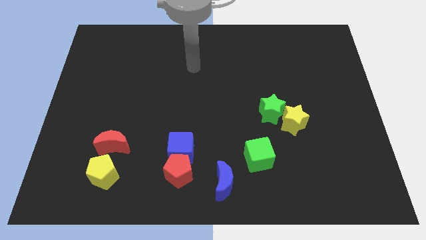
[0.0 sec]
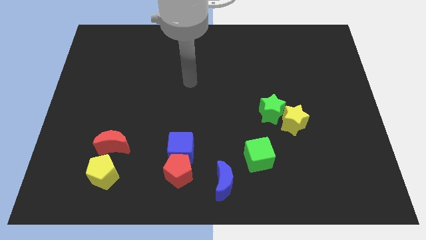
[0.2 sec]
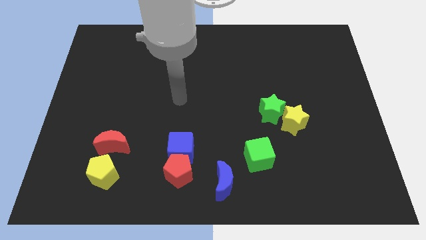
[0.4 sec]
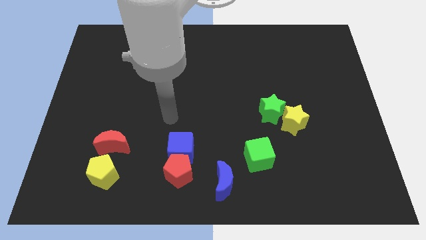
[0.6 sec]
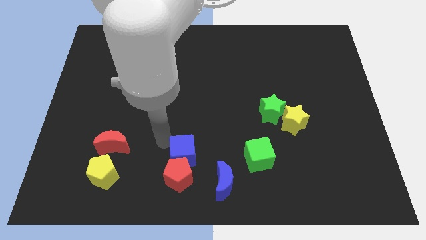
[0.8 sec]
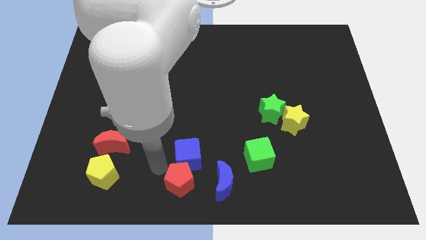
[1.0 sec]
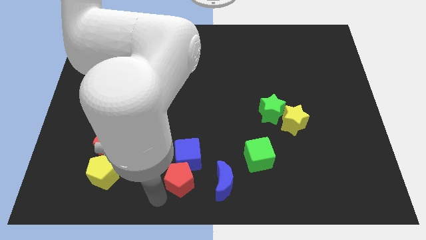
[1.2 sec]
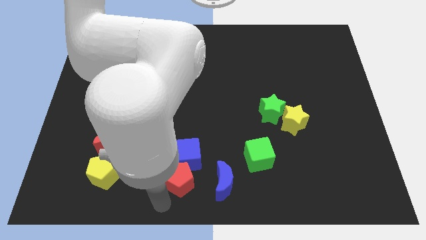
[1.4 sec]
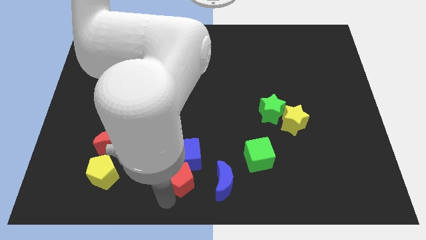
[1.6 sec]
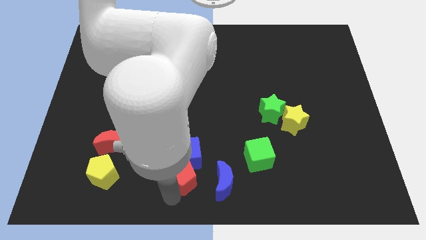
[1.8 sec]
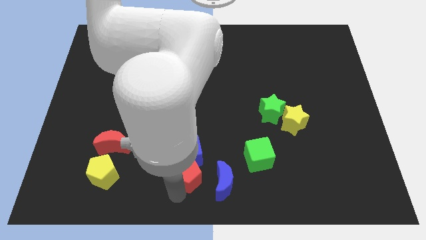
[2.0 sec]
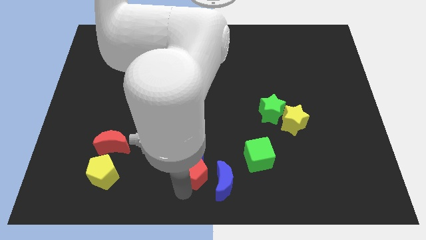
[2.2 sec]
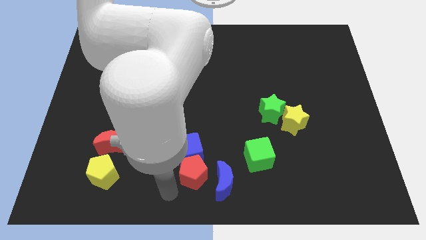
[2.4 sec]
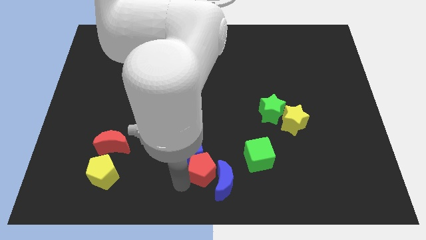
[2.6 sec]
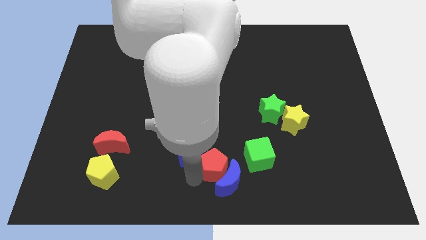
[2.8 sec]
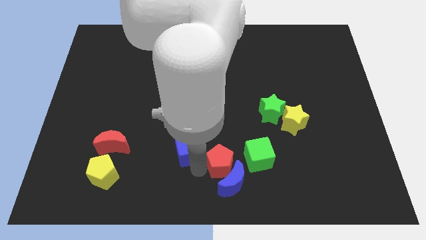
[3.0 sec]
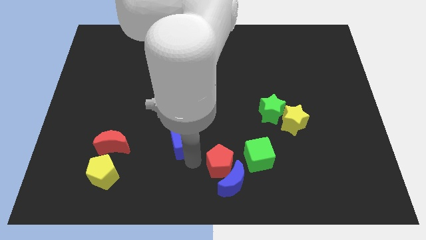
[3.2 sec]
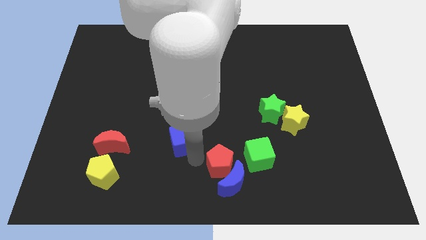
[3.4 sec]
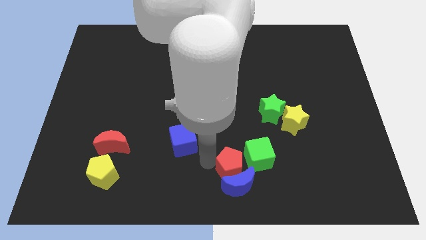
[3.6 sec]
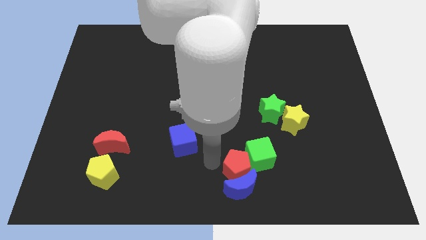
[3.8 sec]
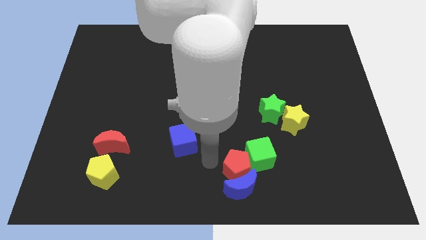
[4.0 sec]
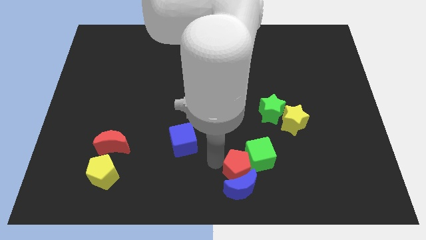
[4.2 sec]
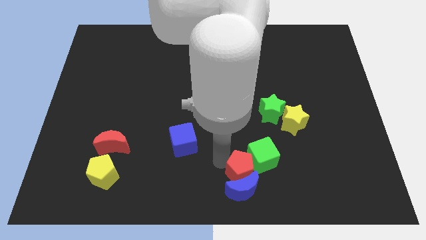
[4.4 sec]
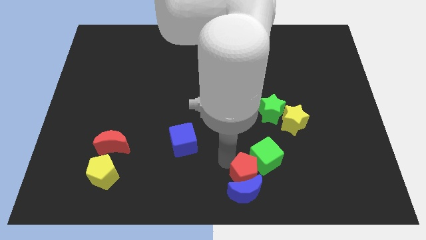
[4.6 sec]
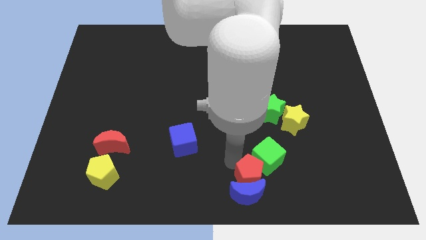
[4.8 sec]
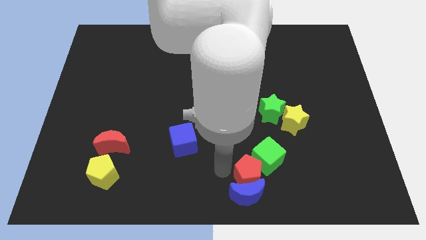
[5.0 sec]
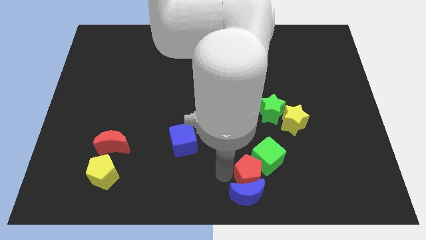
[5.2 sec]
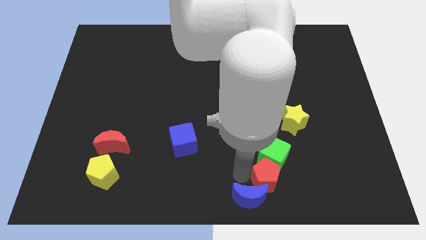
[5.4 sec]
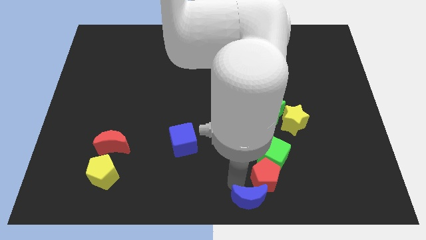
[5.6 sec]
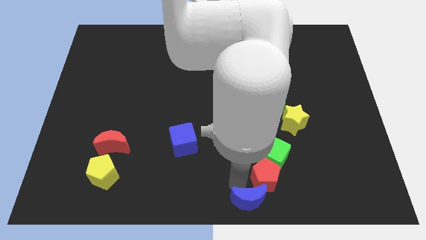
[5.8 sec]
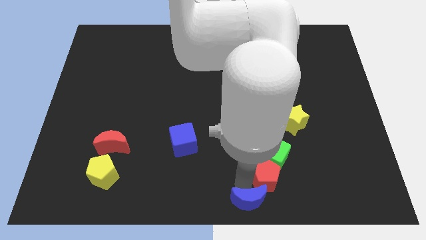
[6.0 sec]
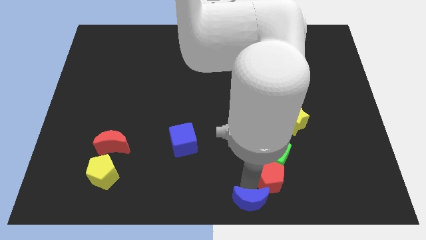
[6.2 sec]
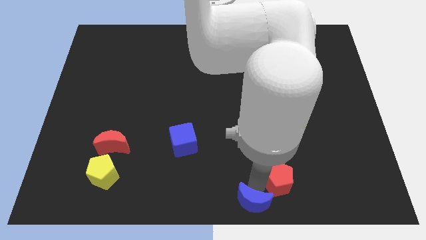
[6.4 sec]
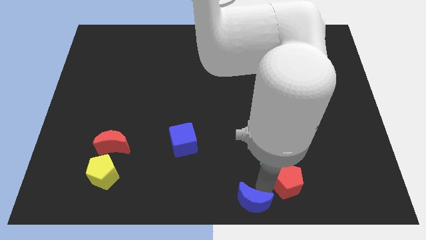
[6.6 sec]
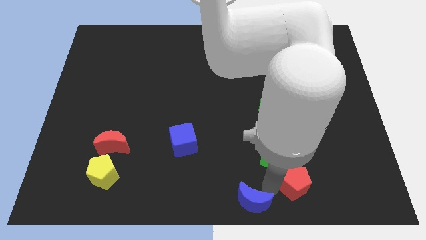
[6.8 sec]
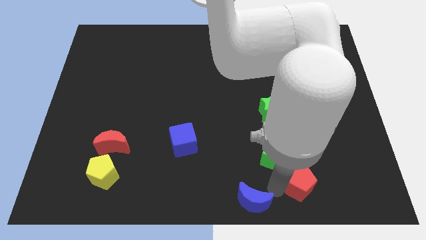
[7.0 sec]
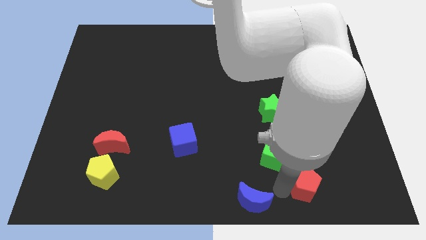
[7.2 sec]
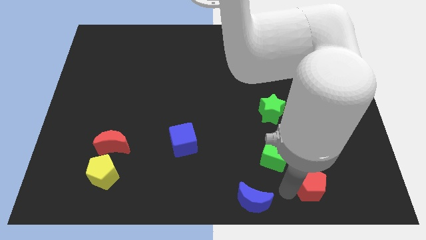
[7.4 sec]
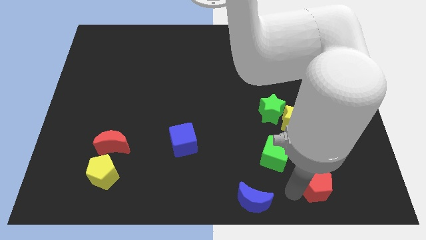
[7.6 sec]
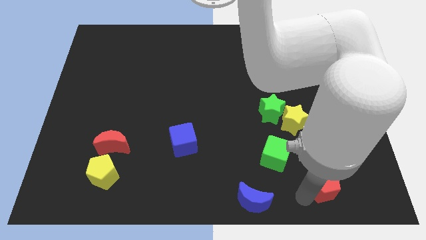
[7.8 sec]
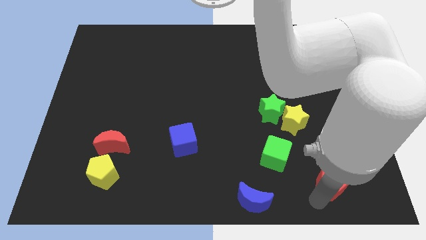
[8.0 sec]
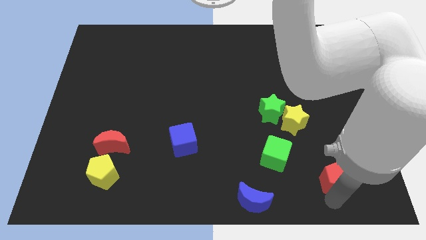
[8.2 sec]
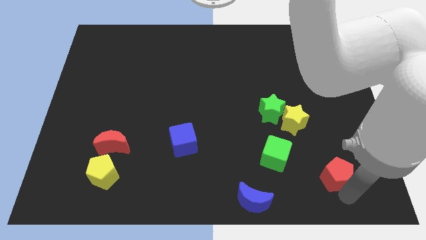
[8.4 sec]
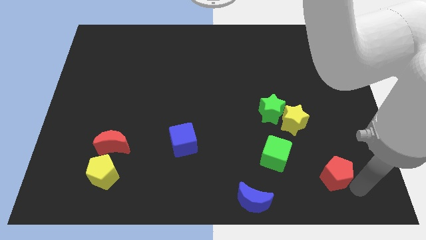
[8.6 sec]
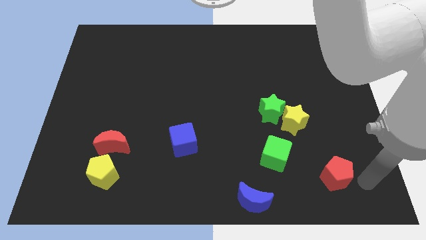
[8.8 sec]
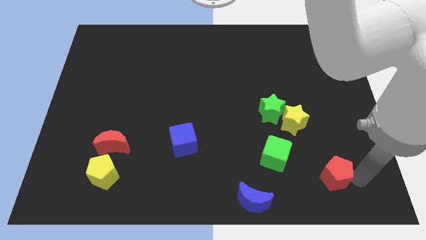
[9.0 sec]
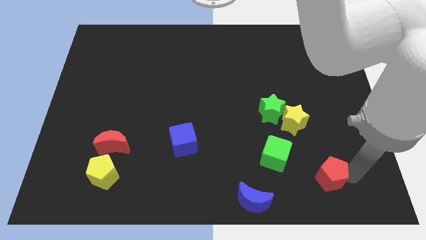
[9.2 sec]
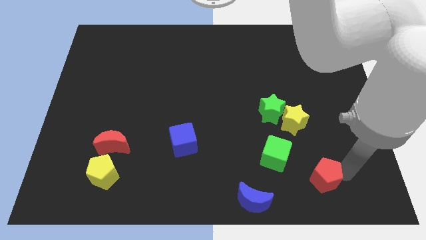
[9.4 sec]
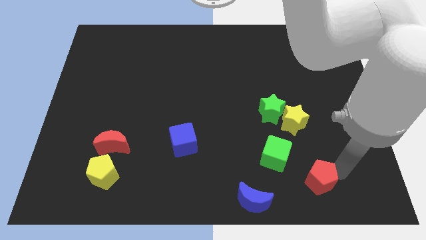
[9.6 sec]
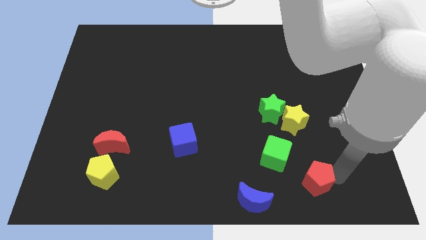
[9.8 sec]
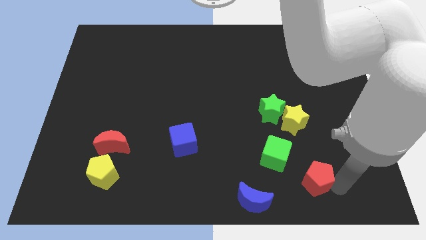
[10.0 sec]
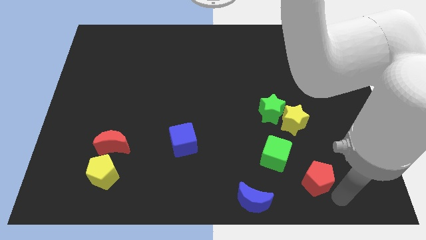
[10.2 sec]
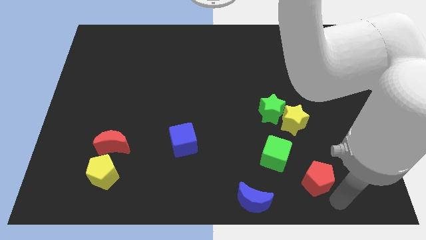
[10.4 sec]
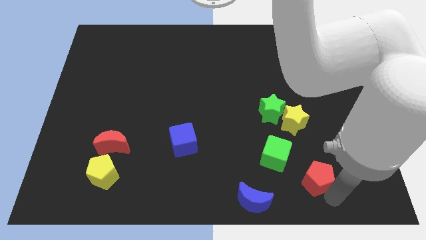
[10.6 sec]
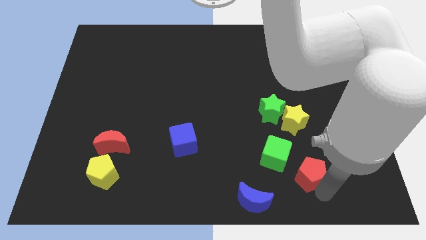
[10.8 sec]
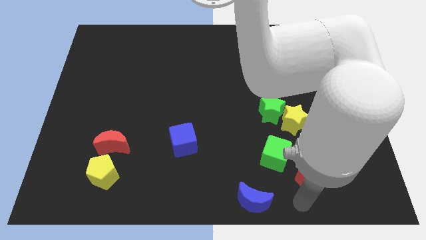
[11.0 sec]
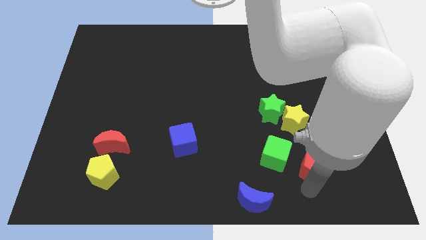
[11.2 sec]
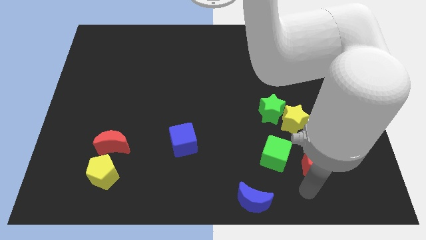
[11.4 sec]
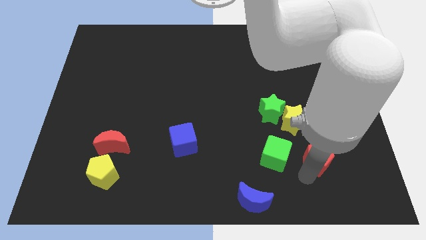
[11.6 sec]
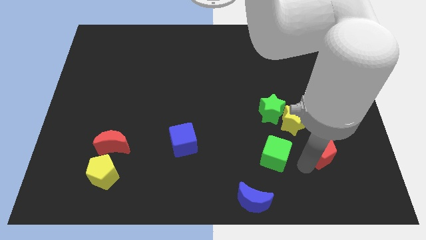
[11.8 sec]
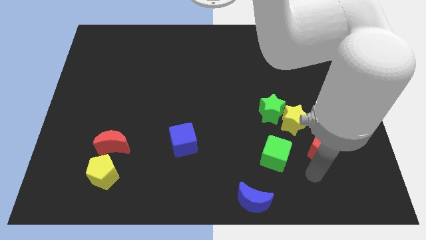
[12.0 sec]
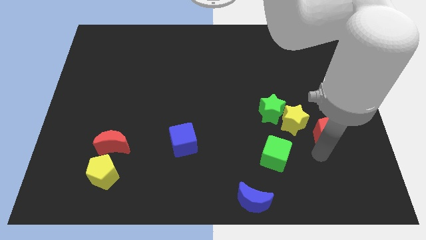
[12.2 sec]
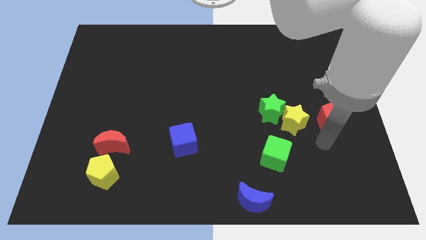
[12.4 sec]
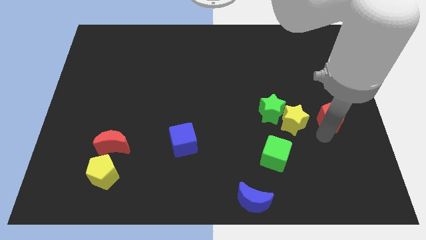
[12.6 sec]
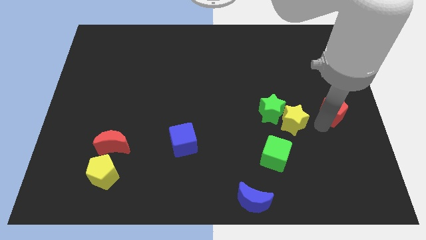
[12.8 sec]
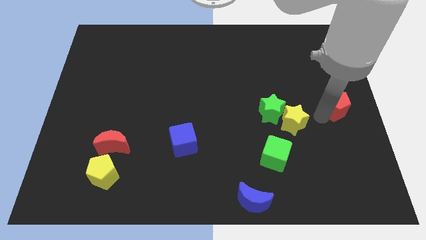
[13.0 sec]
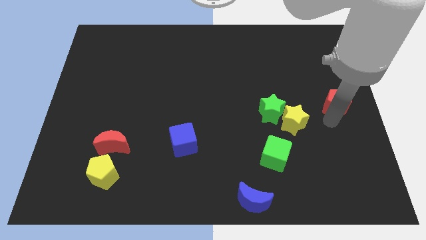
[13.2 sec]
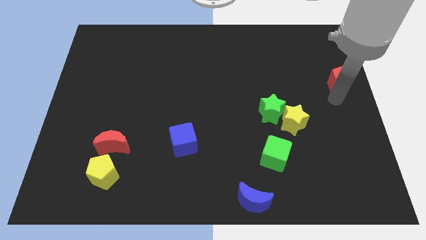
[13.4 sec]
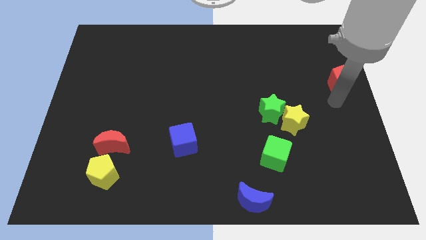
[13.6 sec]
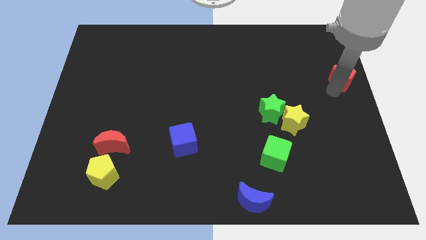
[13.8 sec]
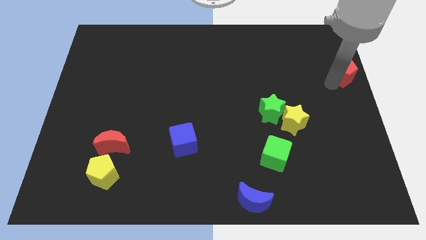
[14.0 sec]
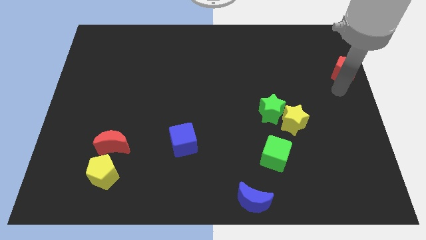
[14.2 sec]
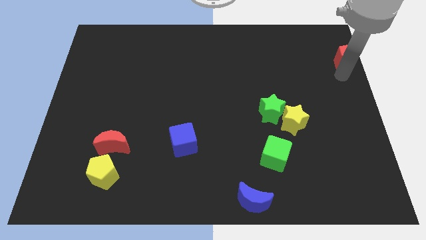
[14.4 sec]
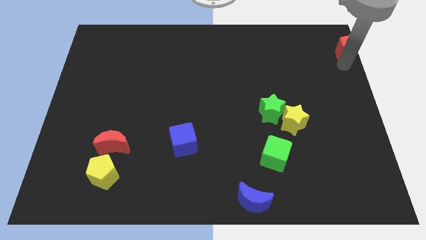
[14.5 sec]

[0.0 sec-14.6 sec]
move the red pentagon to the top right
